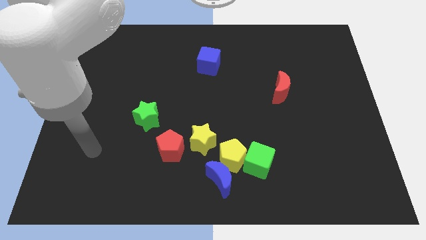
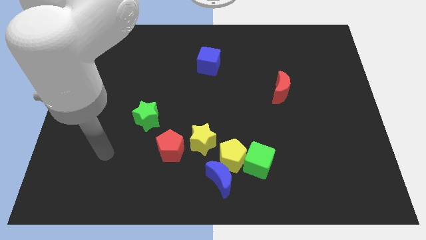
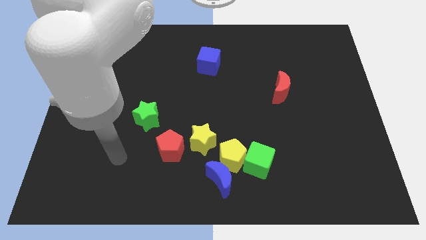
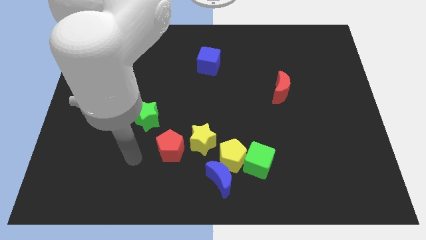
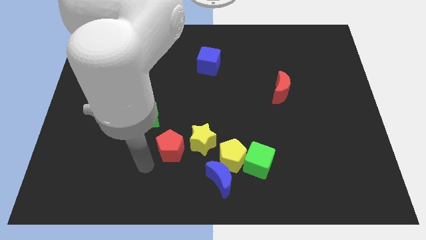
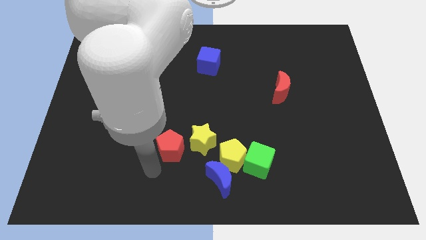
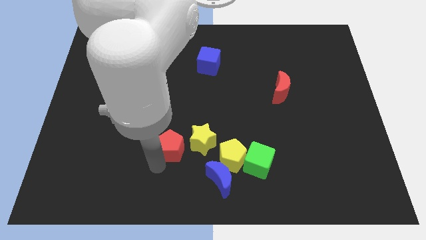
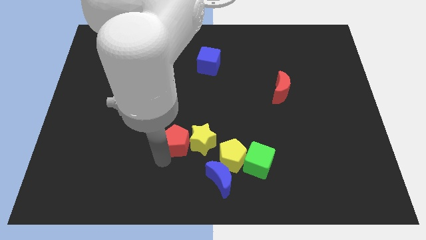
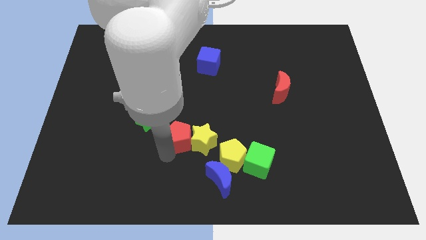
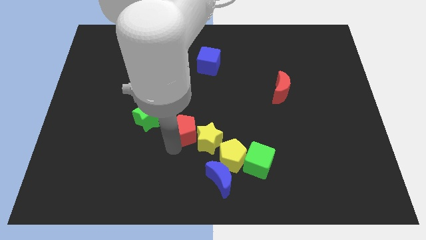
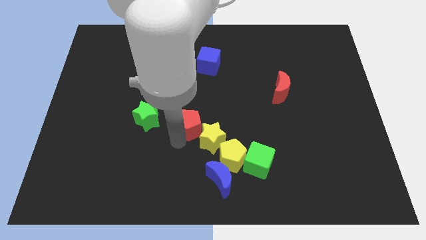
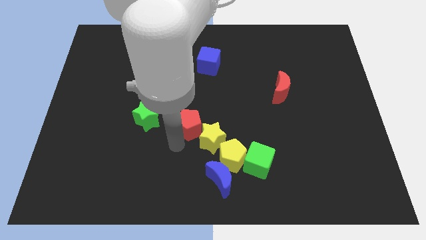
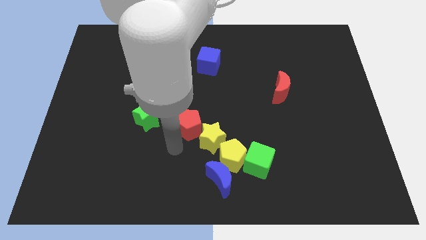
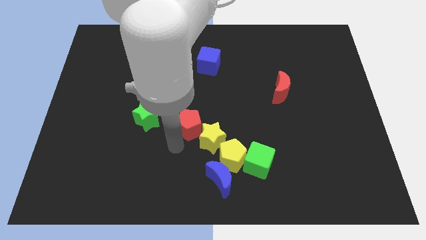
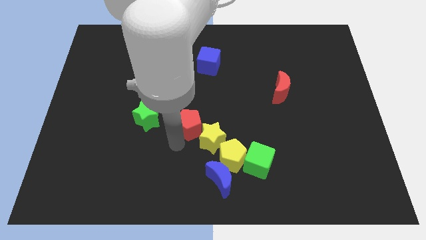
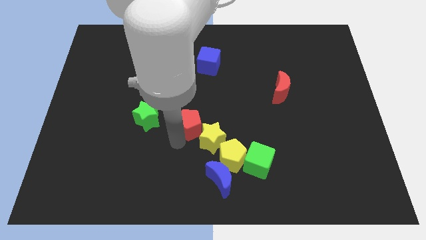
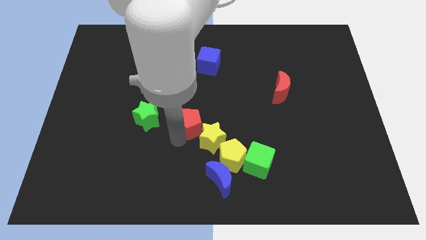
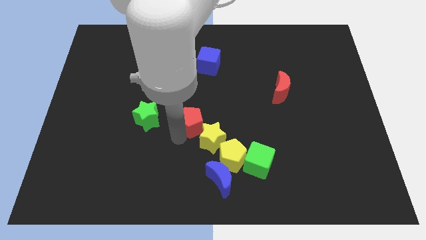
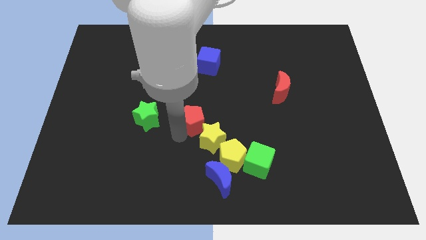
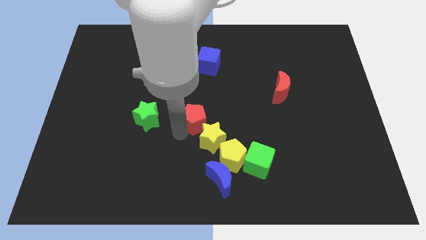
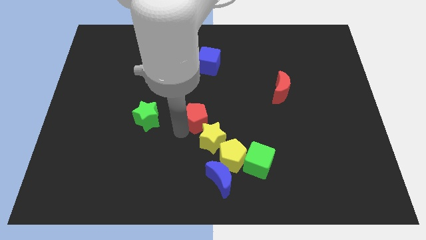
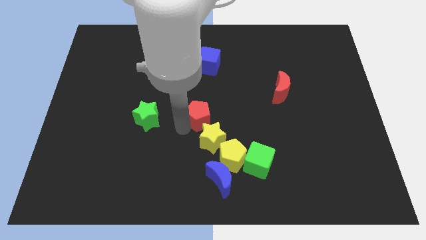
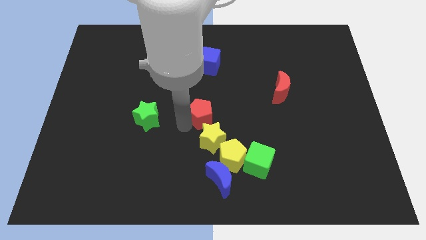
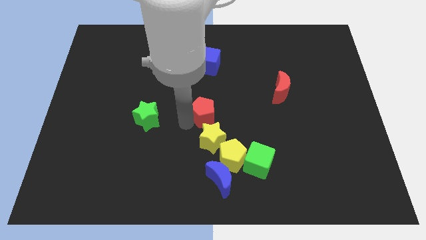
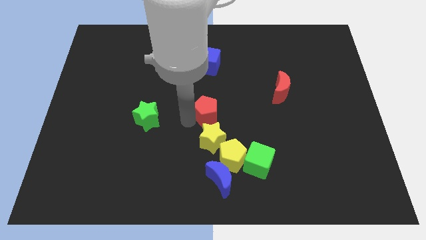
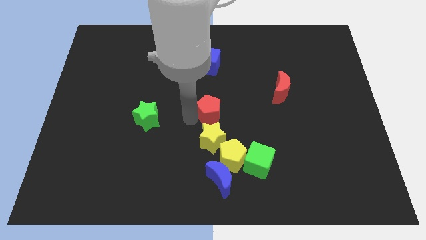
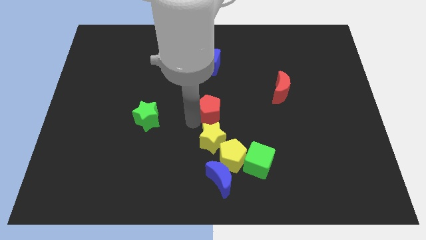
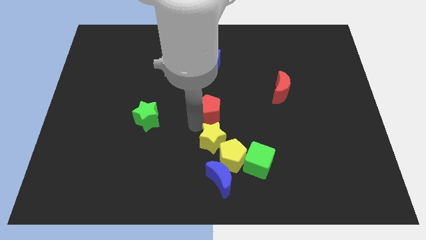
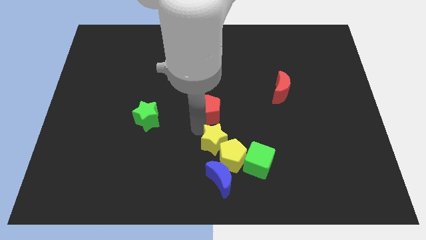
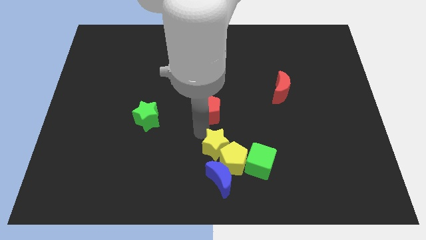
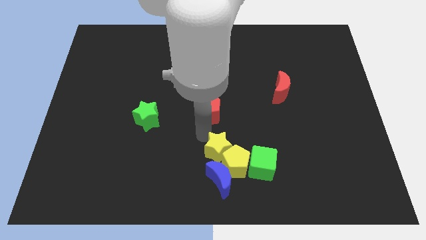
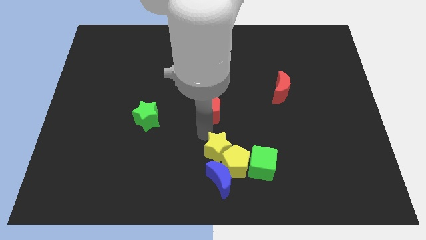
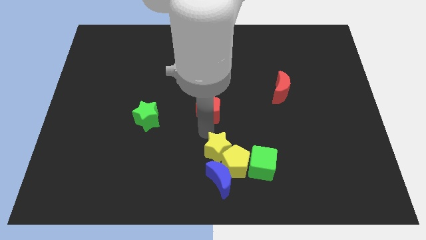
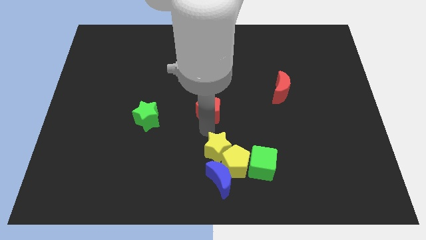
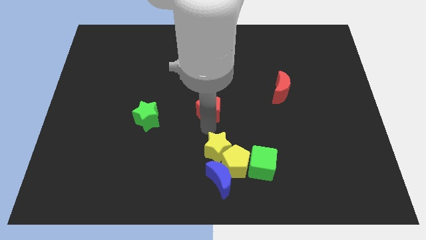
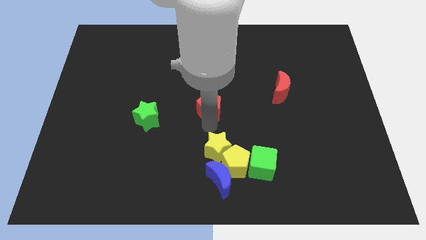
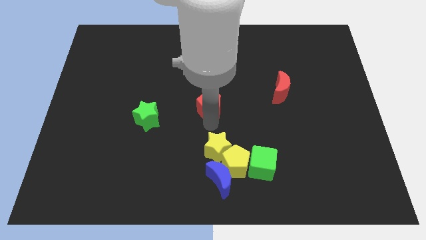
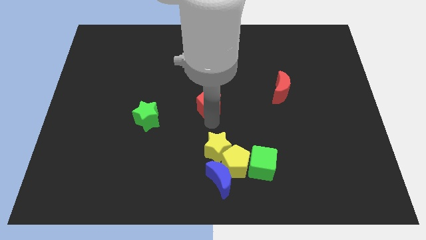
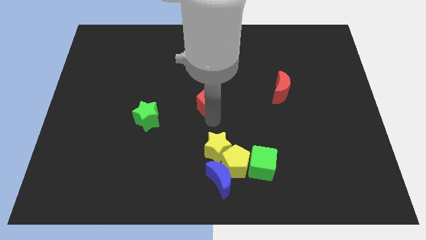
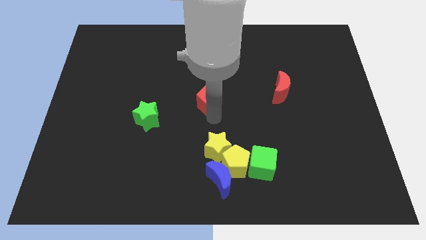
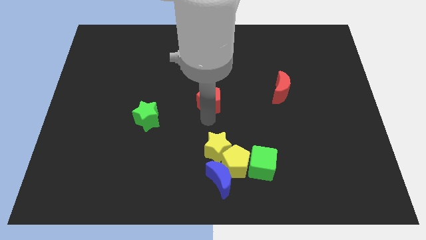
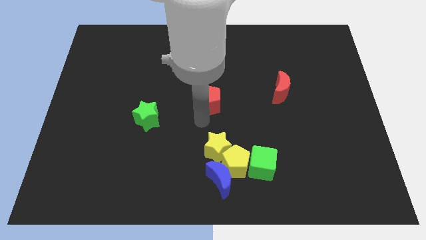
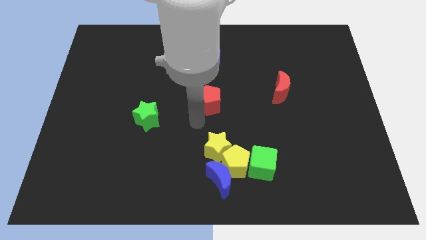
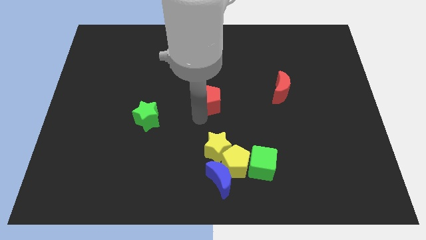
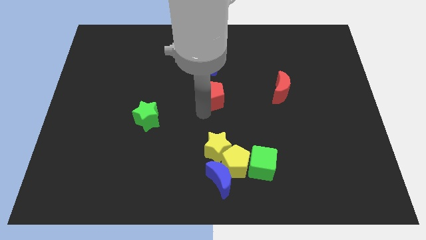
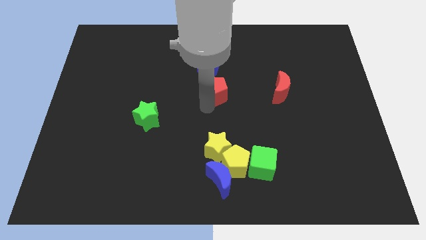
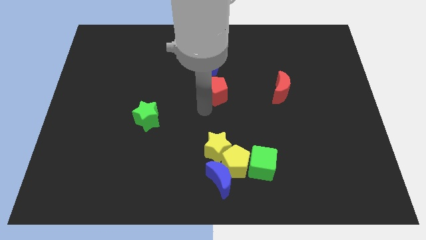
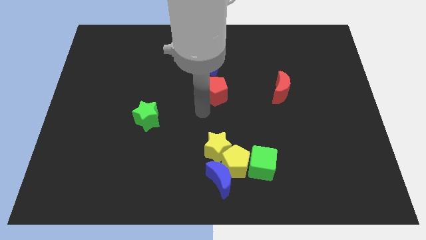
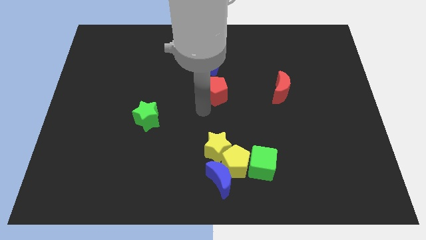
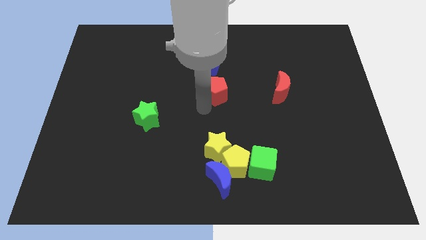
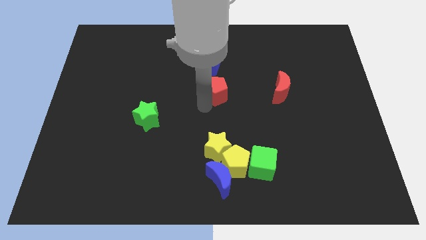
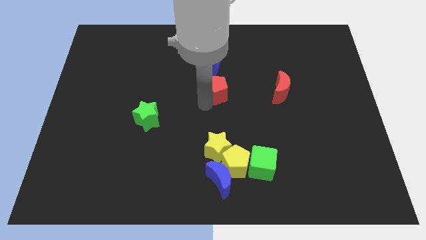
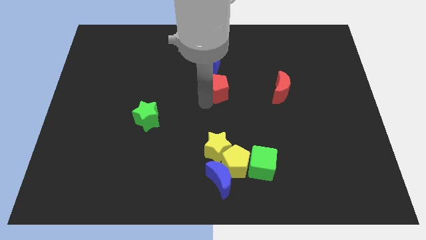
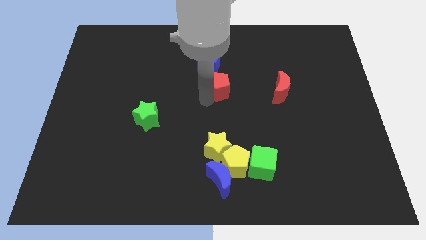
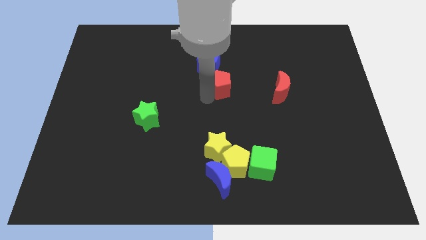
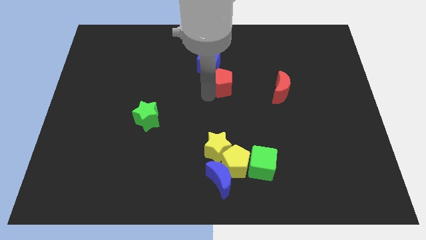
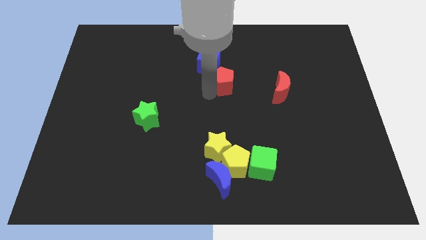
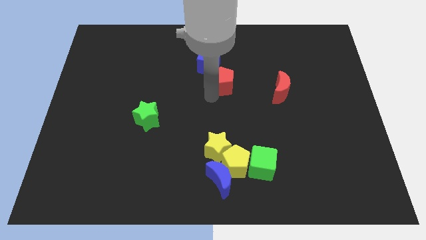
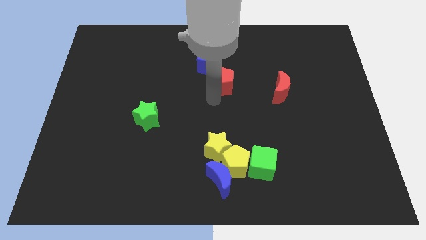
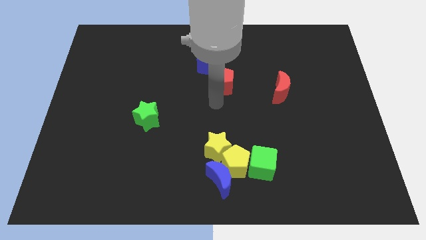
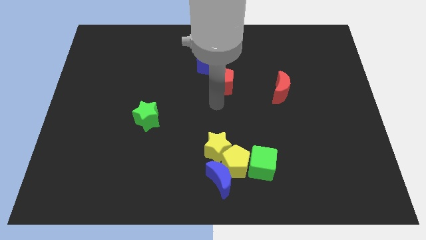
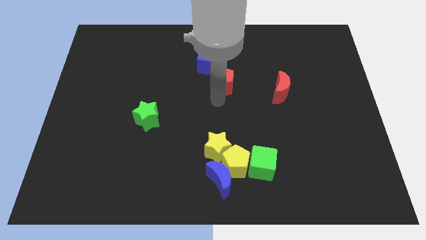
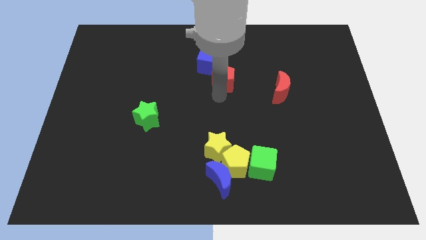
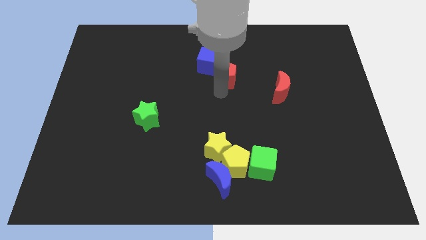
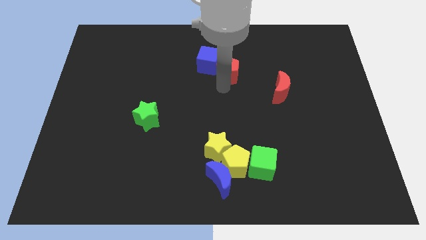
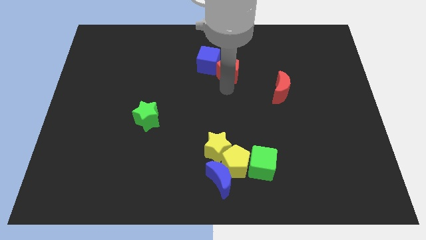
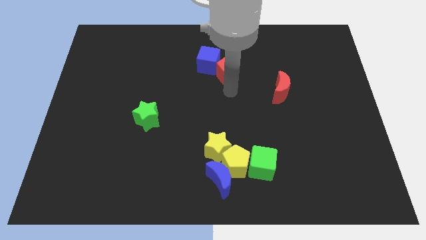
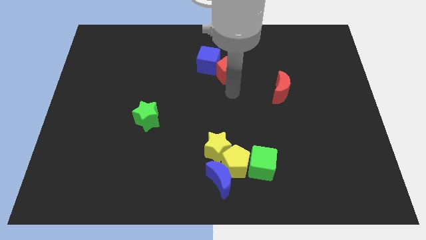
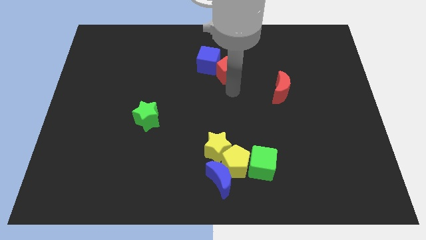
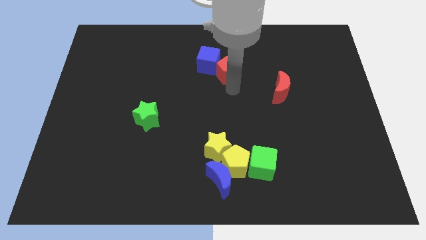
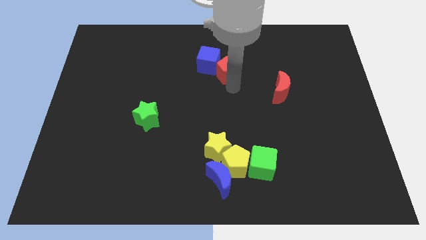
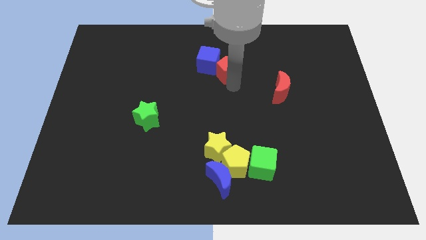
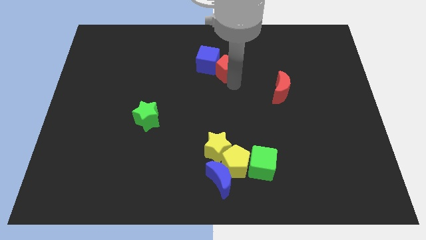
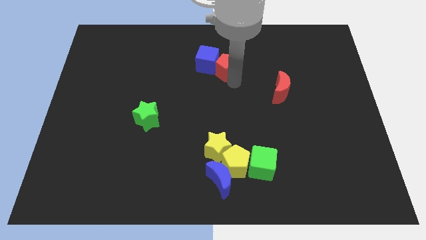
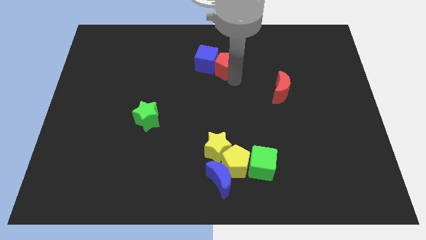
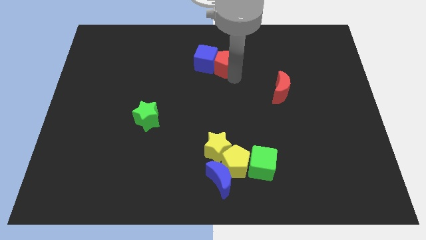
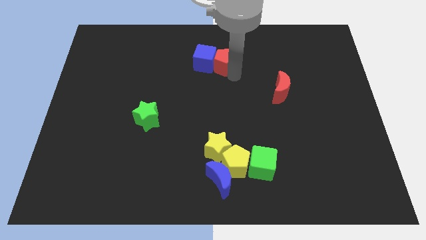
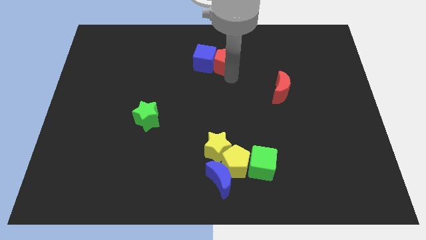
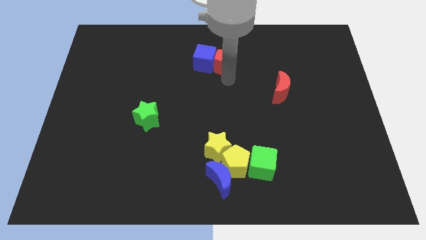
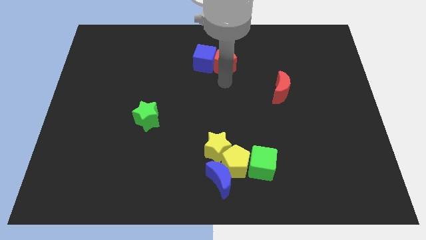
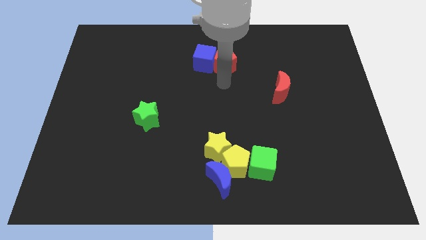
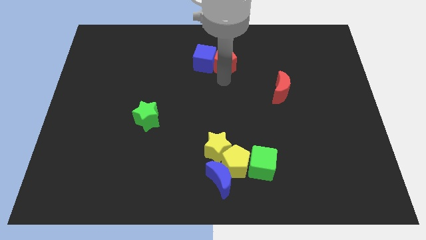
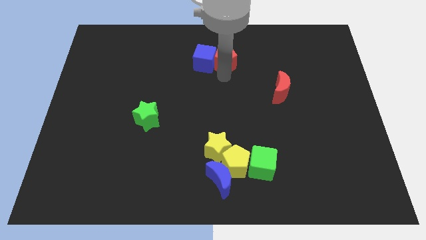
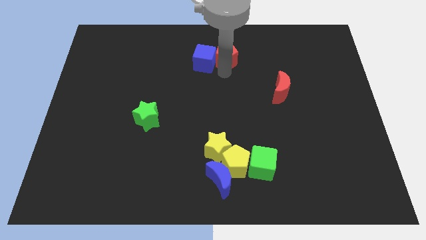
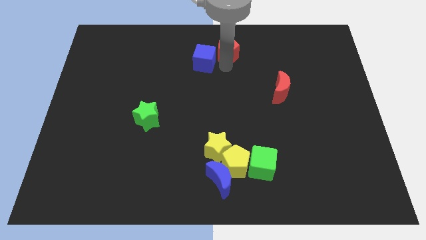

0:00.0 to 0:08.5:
push the red pentagon to the towards your base
